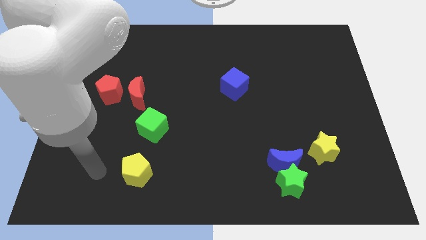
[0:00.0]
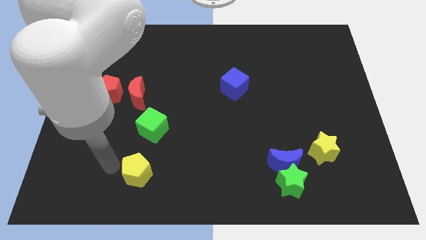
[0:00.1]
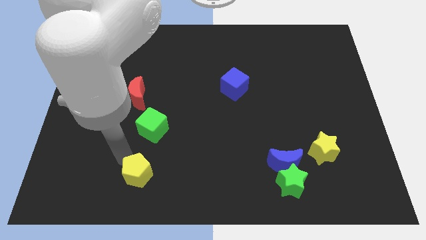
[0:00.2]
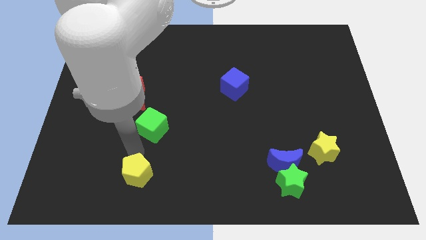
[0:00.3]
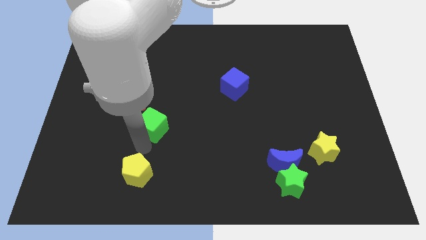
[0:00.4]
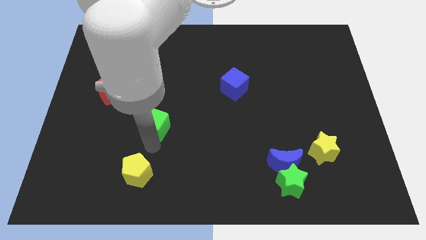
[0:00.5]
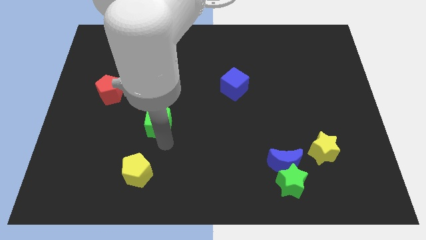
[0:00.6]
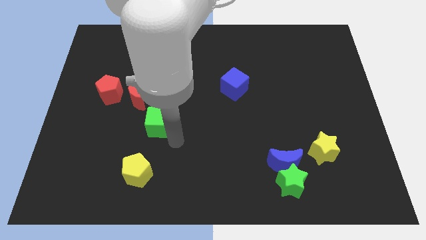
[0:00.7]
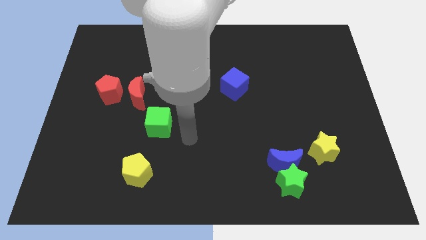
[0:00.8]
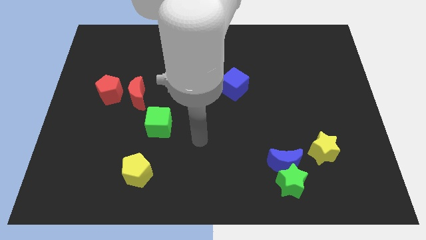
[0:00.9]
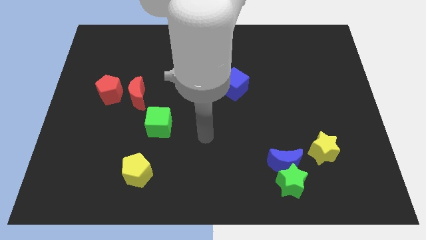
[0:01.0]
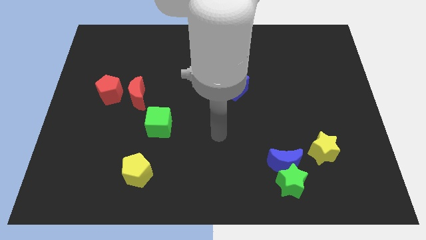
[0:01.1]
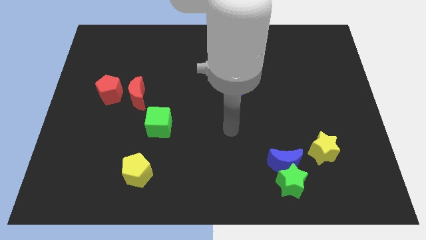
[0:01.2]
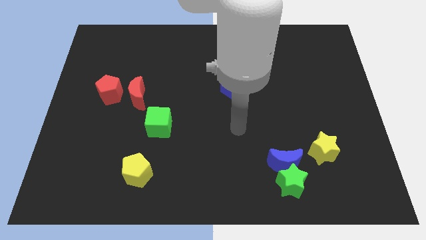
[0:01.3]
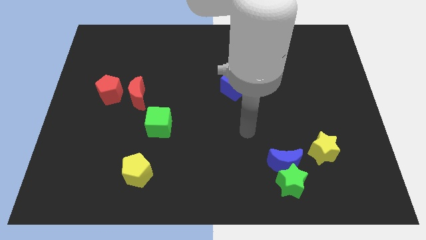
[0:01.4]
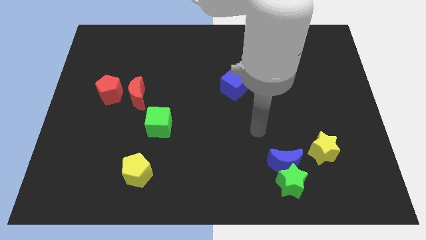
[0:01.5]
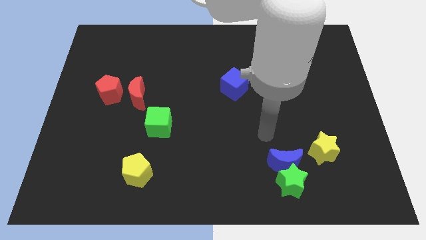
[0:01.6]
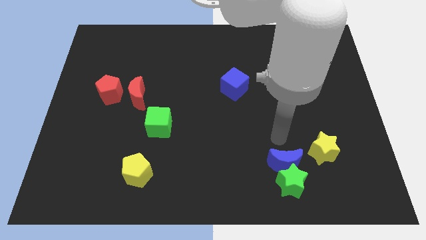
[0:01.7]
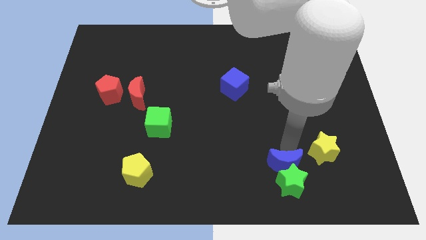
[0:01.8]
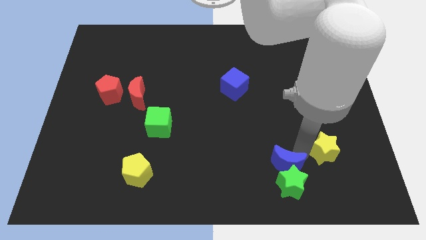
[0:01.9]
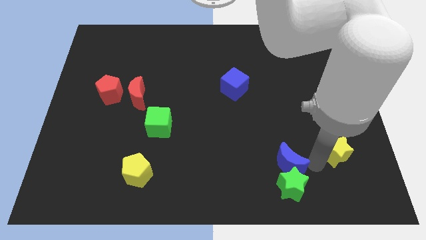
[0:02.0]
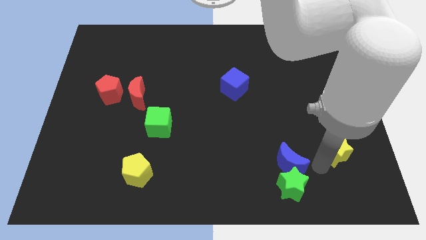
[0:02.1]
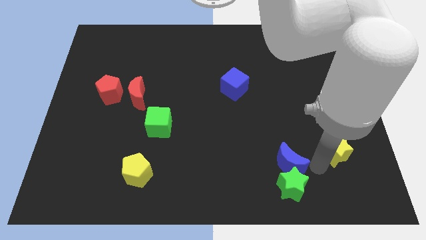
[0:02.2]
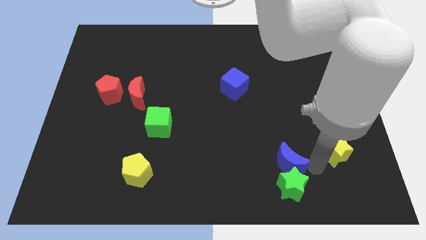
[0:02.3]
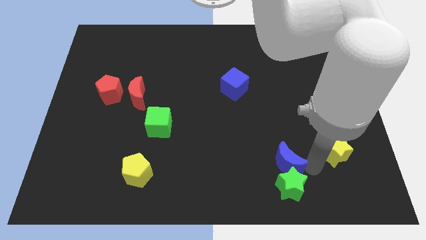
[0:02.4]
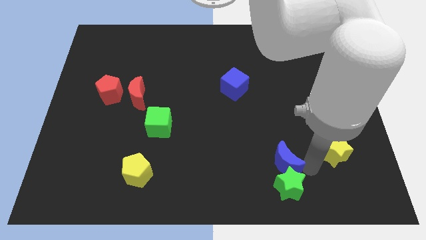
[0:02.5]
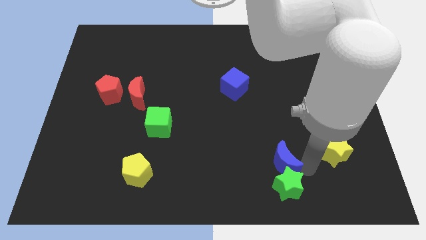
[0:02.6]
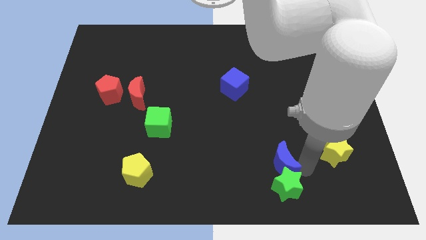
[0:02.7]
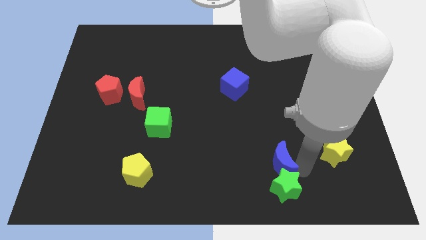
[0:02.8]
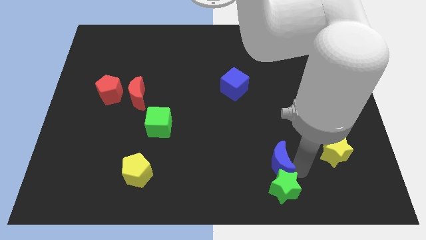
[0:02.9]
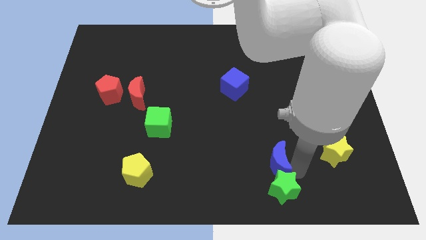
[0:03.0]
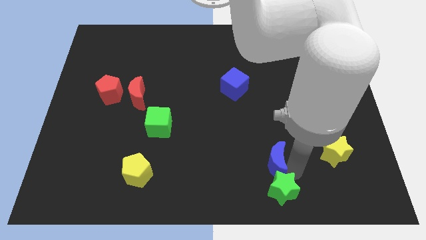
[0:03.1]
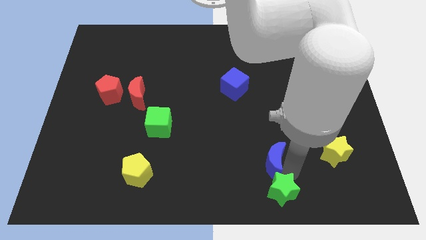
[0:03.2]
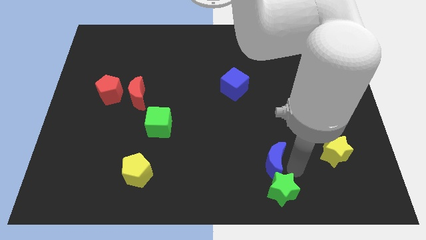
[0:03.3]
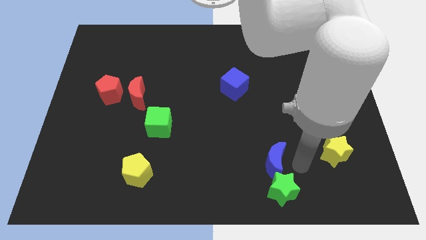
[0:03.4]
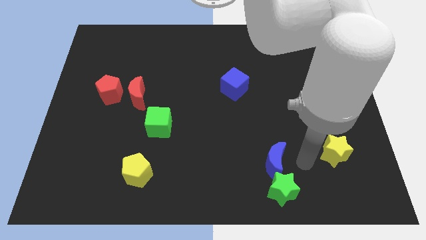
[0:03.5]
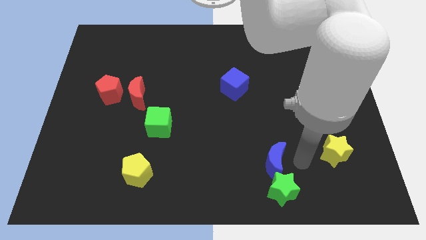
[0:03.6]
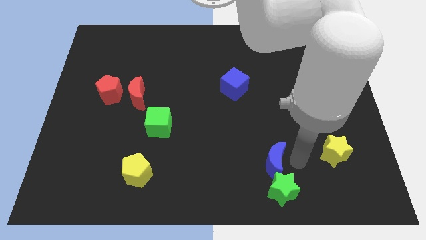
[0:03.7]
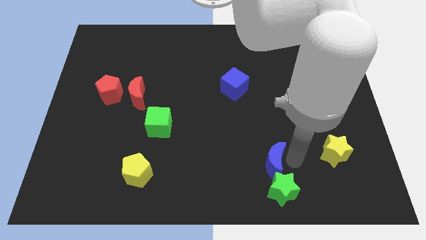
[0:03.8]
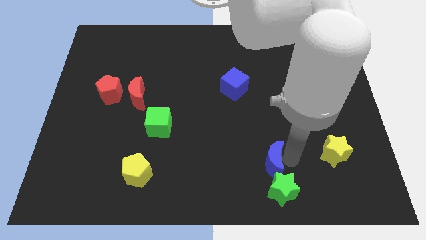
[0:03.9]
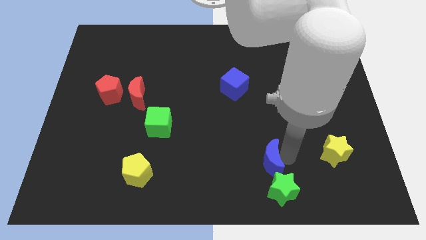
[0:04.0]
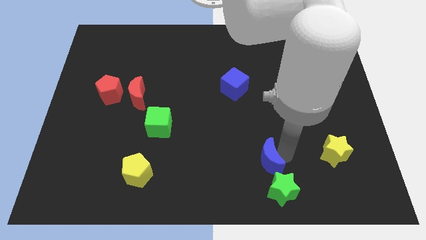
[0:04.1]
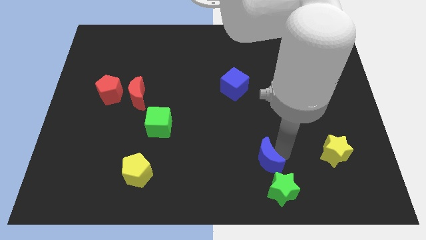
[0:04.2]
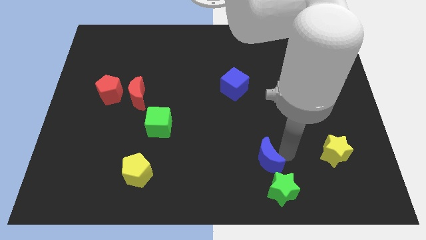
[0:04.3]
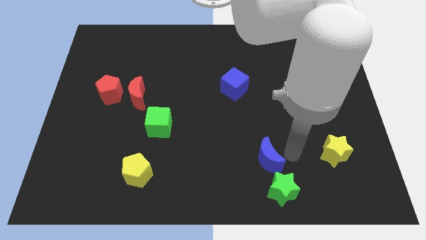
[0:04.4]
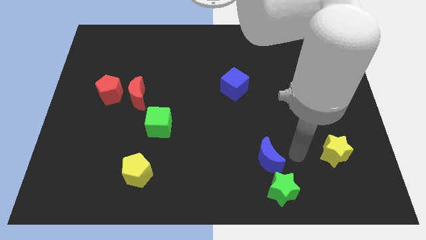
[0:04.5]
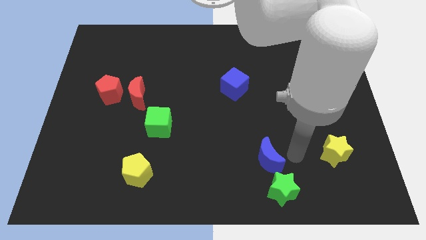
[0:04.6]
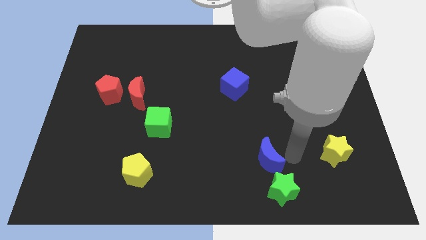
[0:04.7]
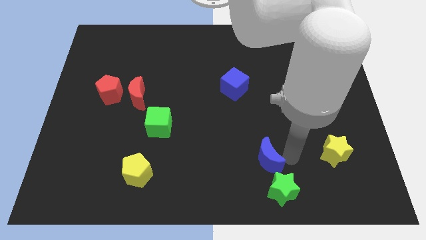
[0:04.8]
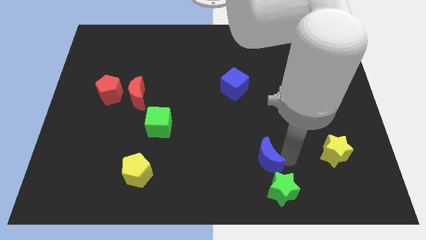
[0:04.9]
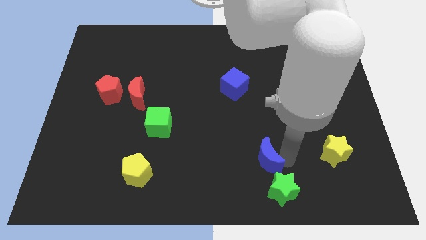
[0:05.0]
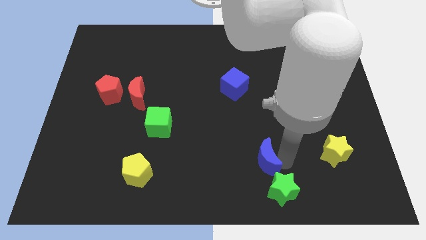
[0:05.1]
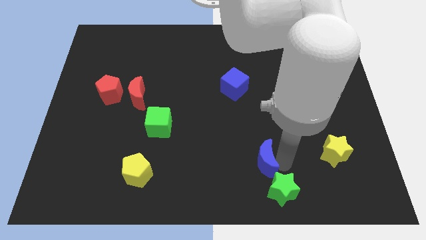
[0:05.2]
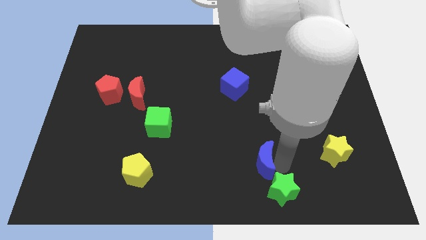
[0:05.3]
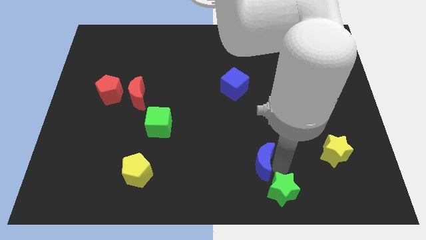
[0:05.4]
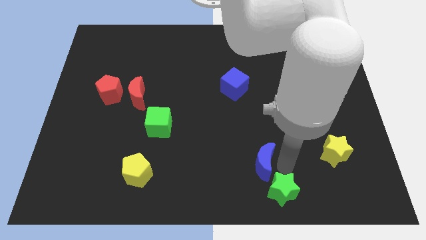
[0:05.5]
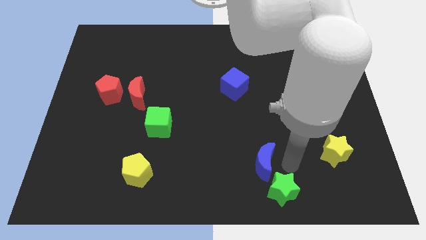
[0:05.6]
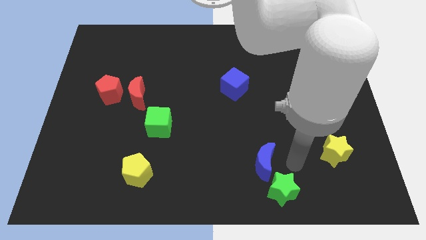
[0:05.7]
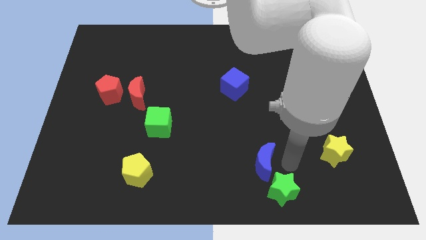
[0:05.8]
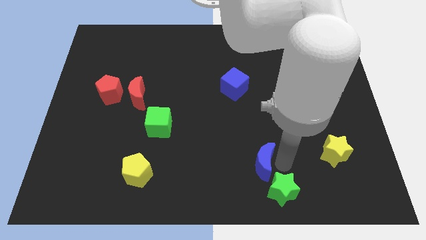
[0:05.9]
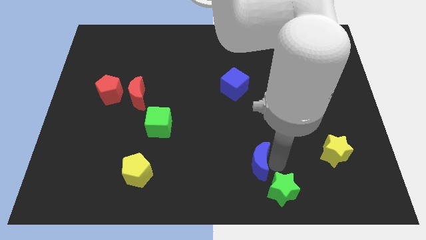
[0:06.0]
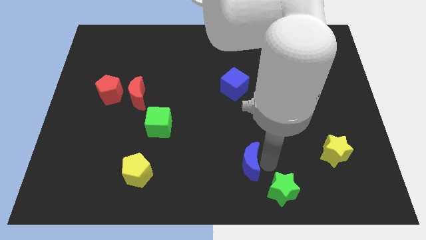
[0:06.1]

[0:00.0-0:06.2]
slide the blue moon a little left

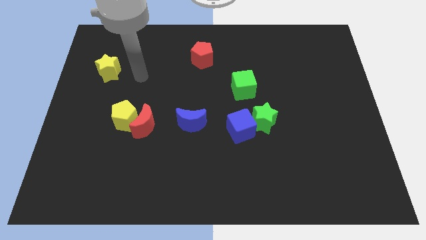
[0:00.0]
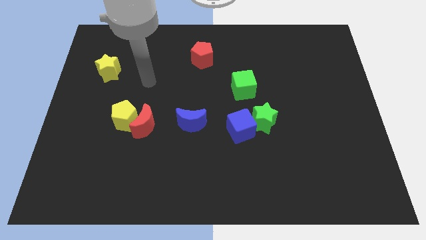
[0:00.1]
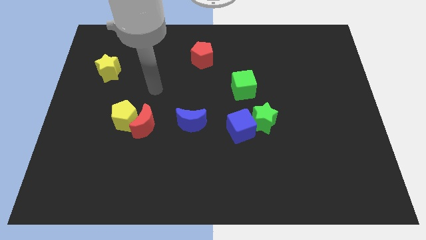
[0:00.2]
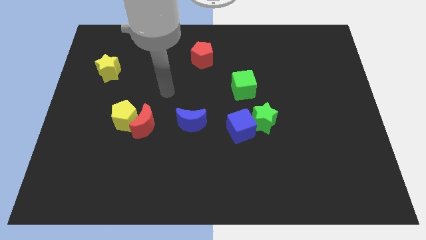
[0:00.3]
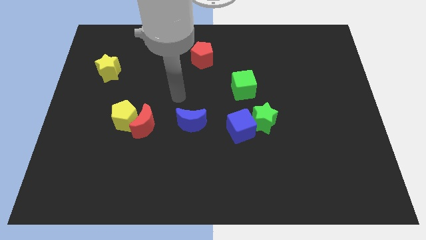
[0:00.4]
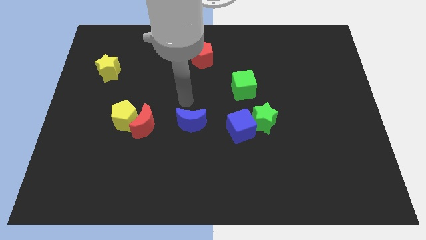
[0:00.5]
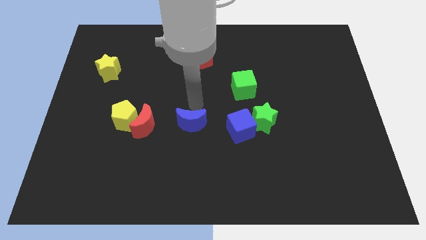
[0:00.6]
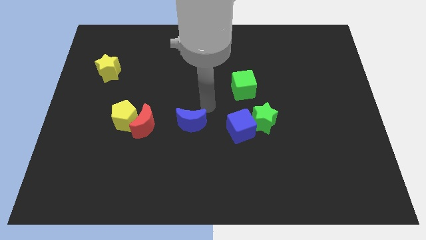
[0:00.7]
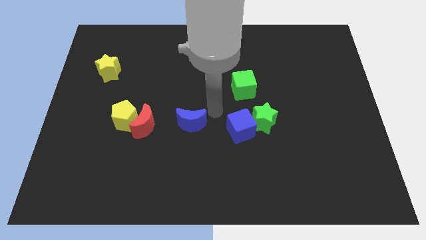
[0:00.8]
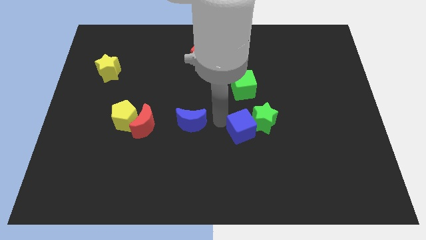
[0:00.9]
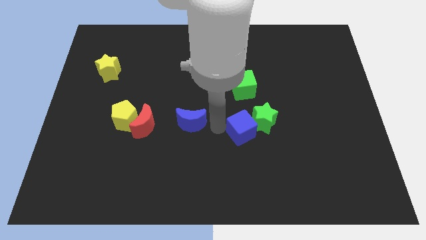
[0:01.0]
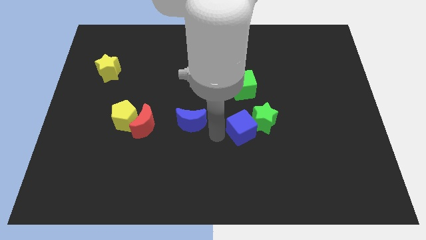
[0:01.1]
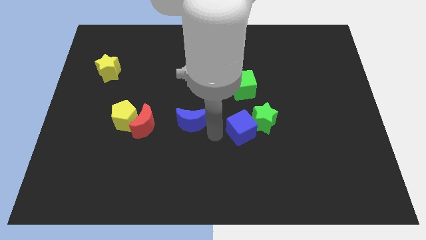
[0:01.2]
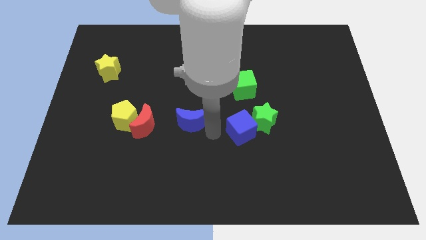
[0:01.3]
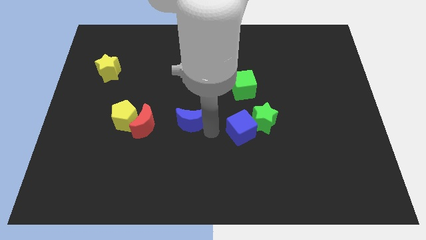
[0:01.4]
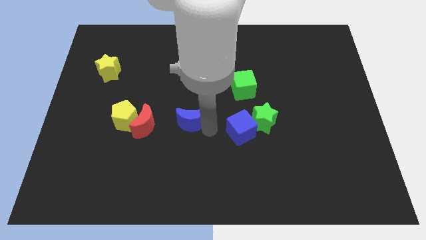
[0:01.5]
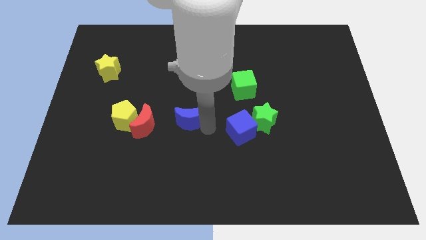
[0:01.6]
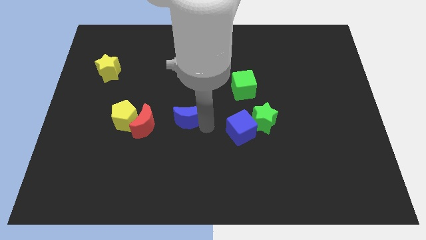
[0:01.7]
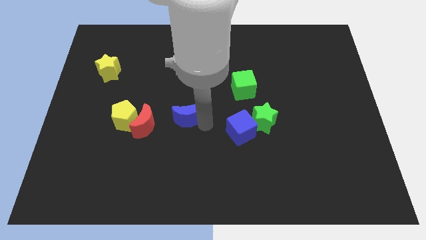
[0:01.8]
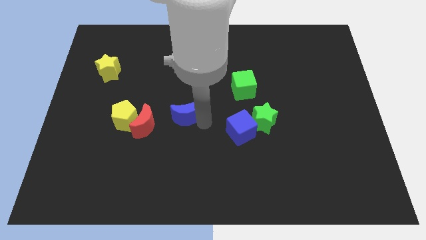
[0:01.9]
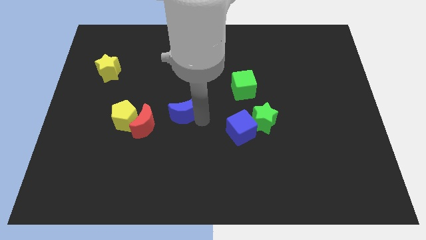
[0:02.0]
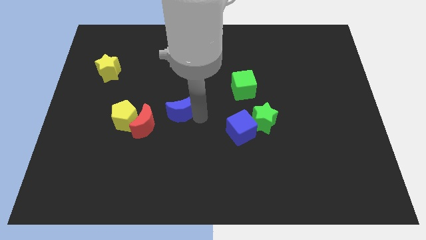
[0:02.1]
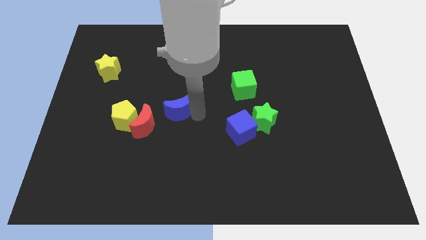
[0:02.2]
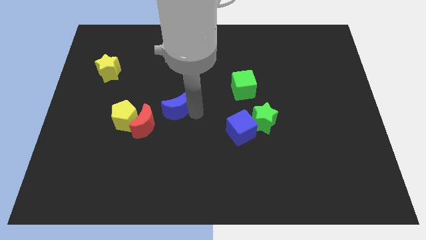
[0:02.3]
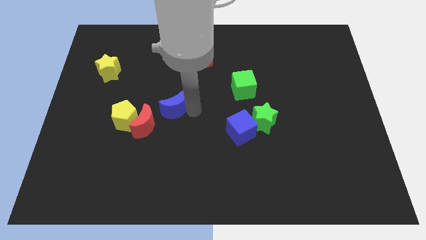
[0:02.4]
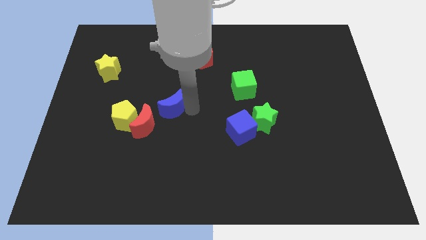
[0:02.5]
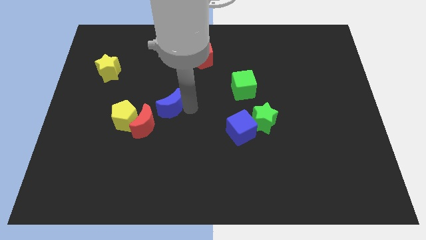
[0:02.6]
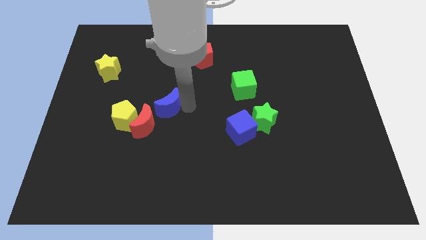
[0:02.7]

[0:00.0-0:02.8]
slightly push the blue moon up and left
